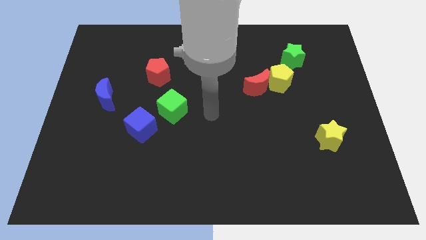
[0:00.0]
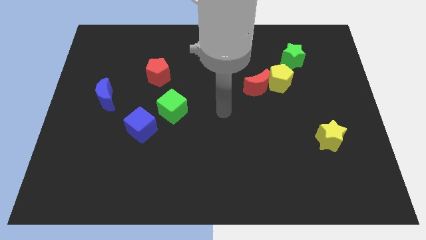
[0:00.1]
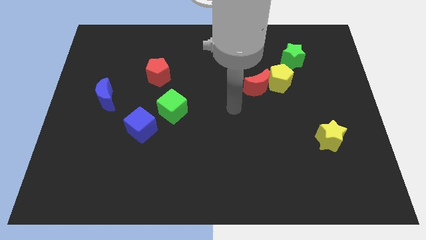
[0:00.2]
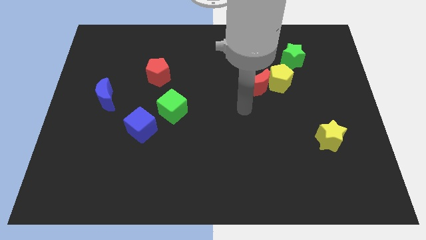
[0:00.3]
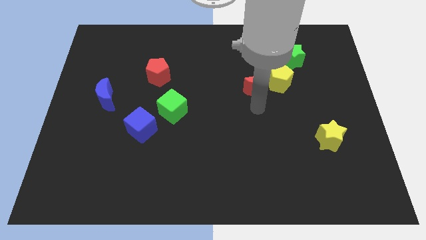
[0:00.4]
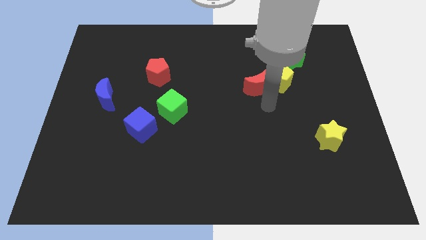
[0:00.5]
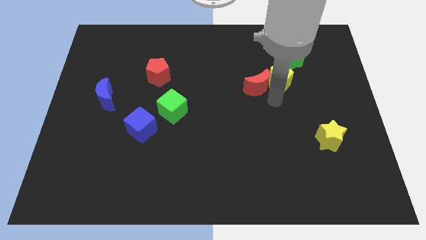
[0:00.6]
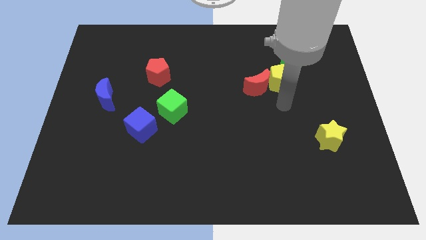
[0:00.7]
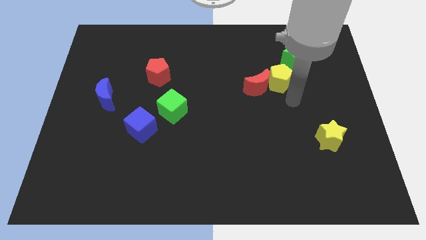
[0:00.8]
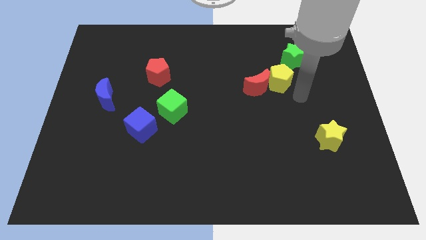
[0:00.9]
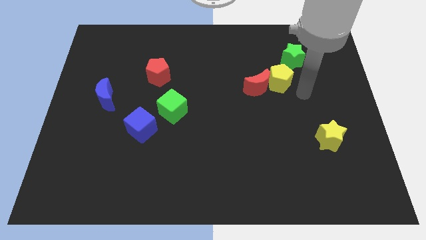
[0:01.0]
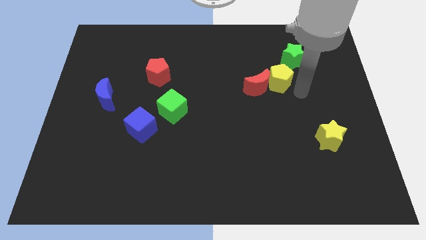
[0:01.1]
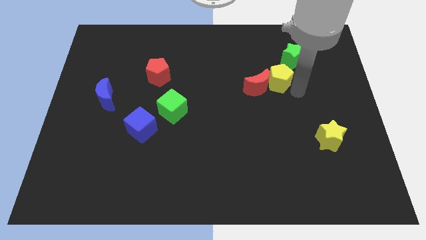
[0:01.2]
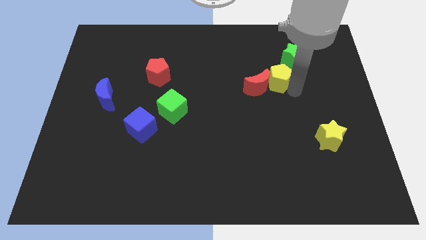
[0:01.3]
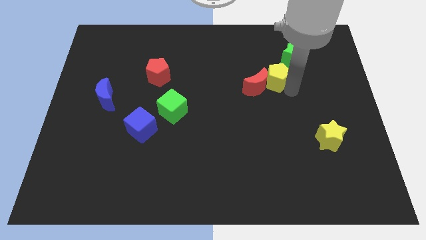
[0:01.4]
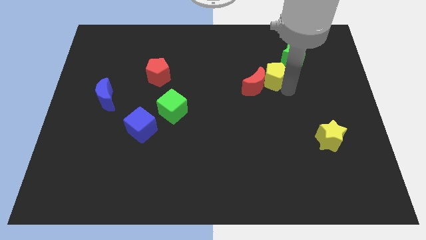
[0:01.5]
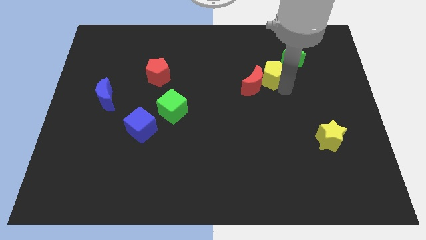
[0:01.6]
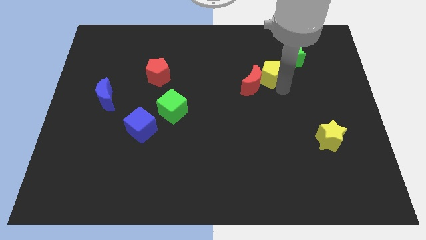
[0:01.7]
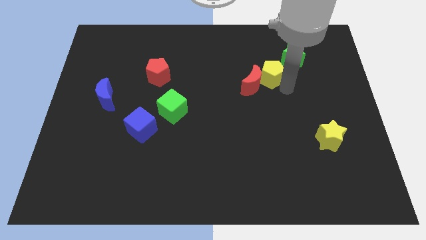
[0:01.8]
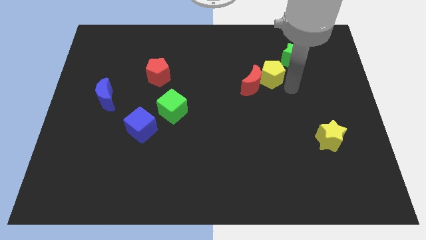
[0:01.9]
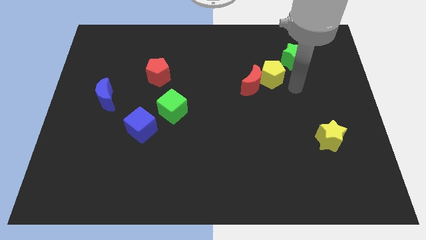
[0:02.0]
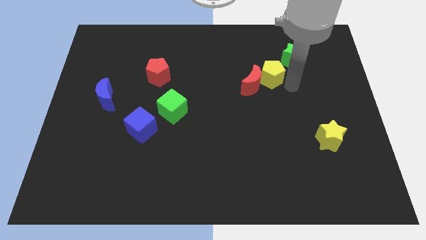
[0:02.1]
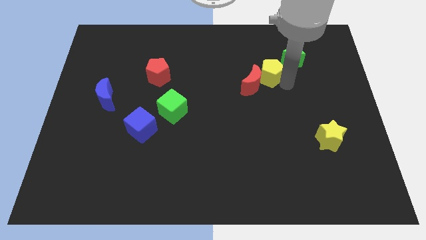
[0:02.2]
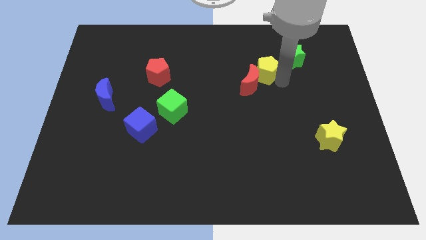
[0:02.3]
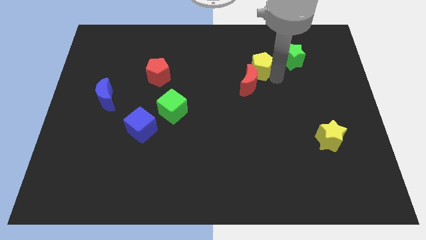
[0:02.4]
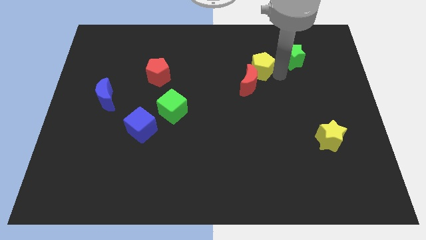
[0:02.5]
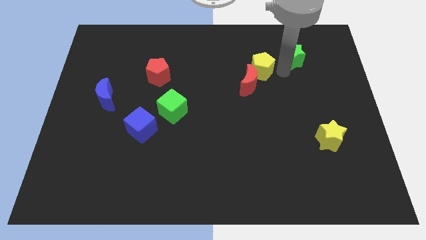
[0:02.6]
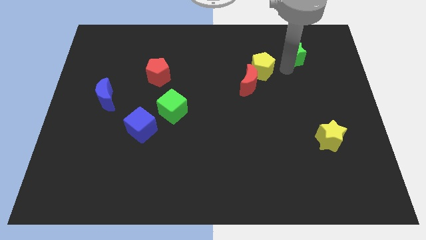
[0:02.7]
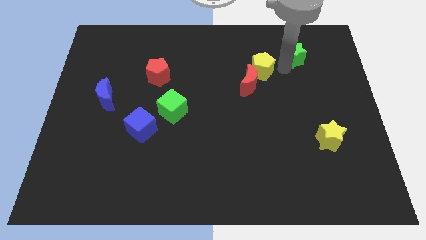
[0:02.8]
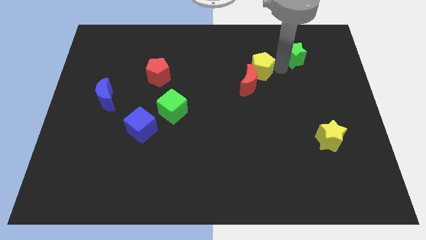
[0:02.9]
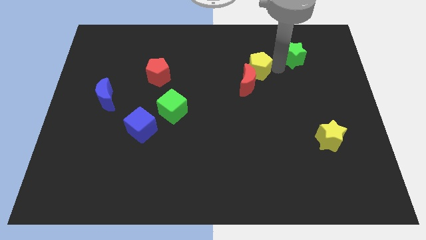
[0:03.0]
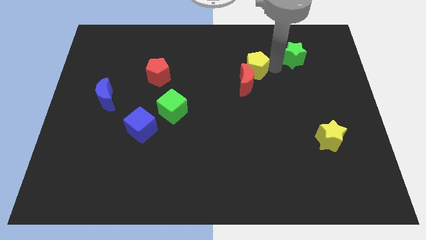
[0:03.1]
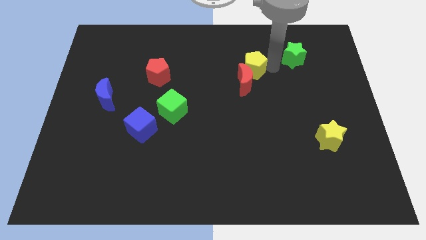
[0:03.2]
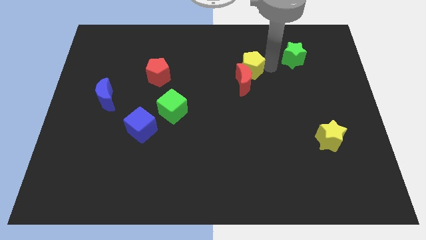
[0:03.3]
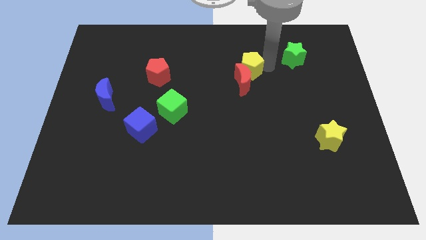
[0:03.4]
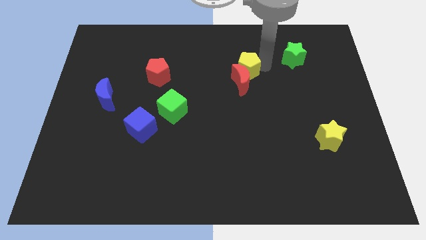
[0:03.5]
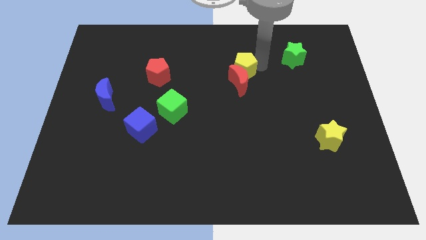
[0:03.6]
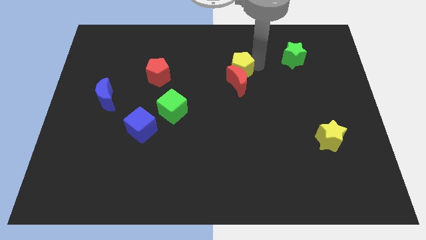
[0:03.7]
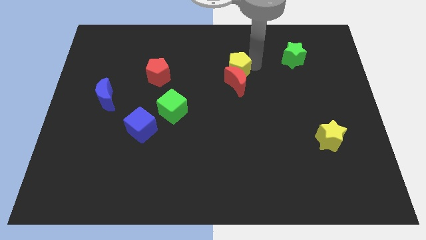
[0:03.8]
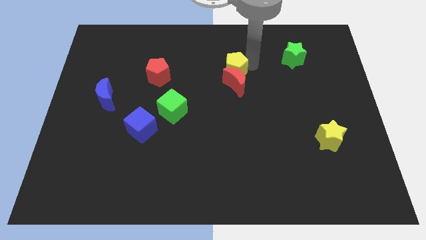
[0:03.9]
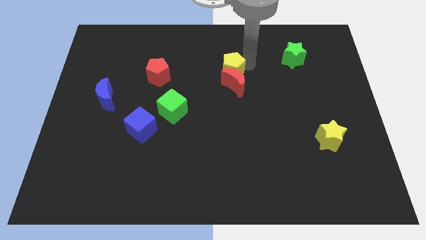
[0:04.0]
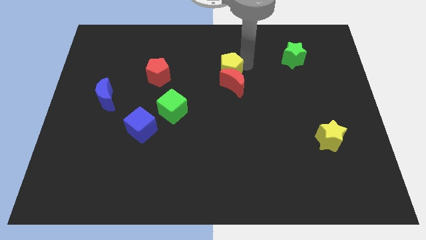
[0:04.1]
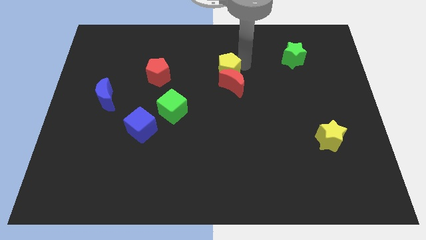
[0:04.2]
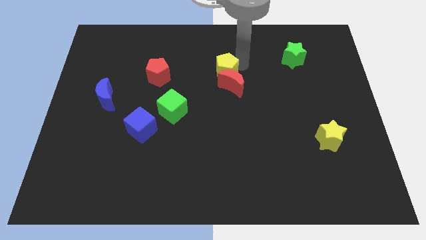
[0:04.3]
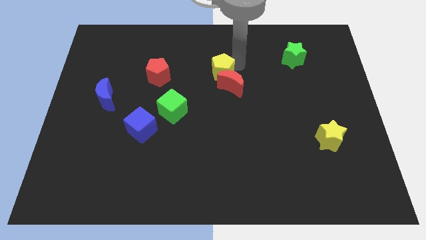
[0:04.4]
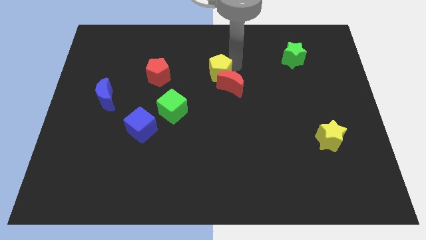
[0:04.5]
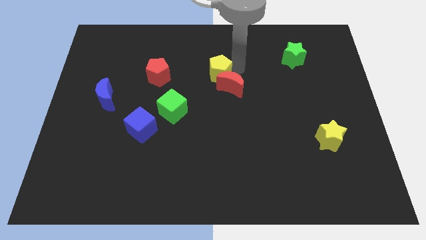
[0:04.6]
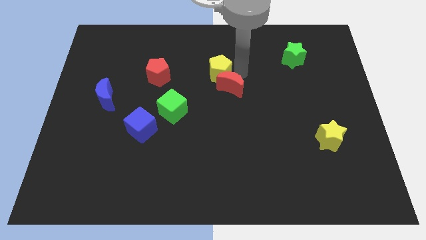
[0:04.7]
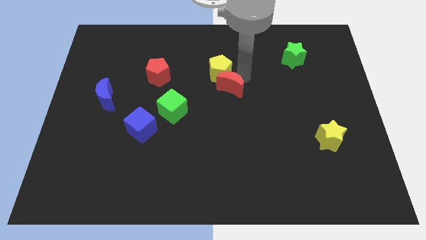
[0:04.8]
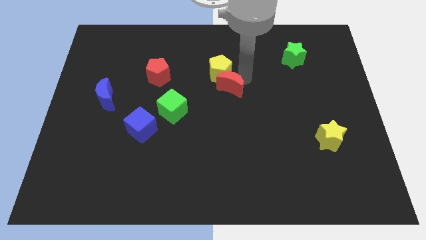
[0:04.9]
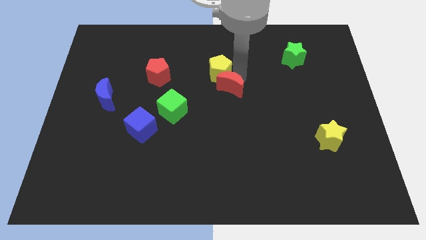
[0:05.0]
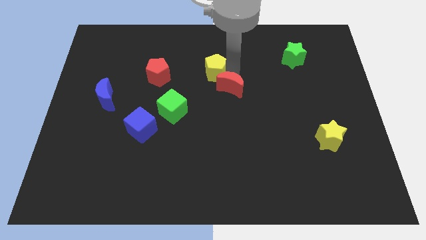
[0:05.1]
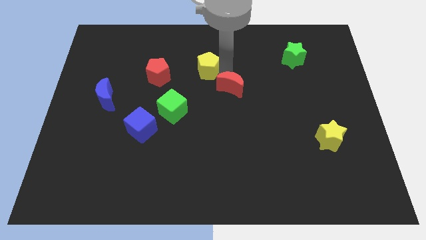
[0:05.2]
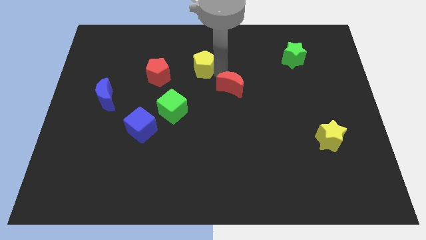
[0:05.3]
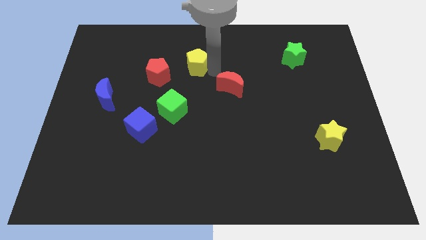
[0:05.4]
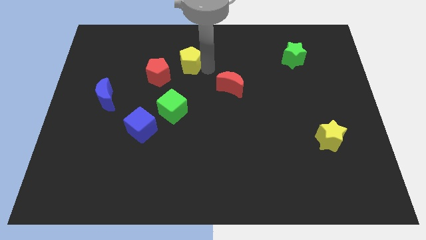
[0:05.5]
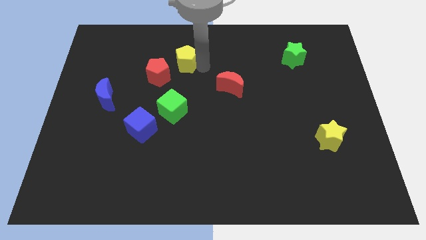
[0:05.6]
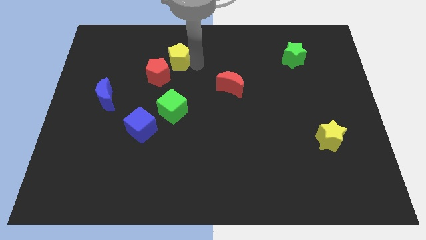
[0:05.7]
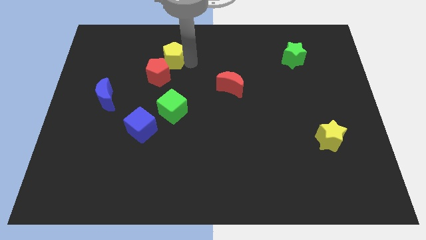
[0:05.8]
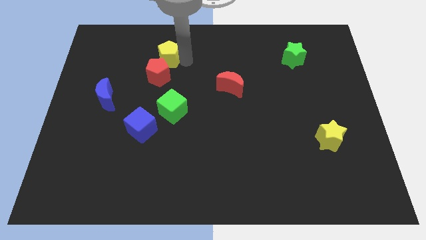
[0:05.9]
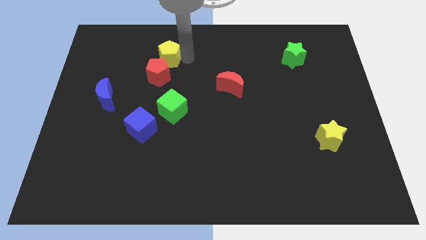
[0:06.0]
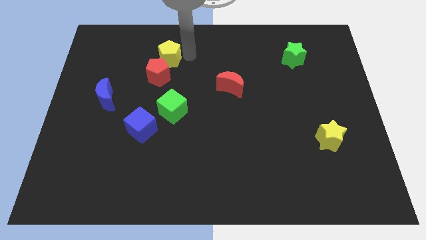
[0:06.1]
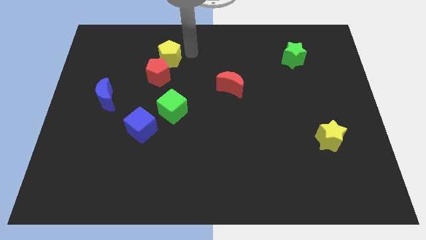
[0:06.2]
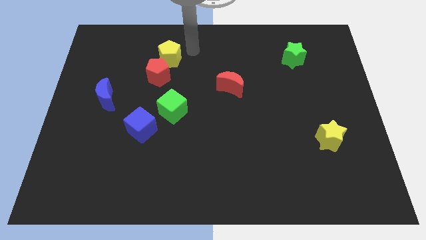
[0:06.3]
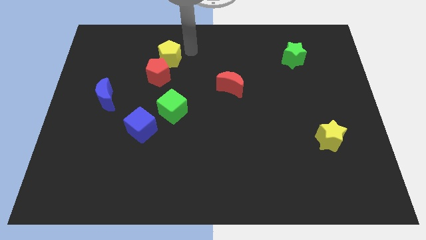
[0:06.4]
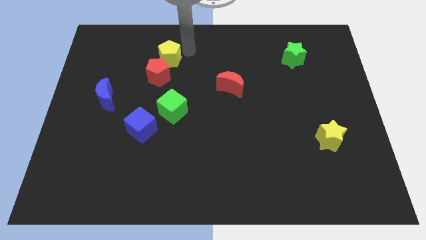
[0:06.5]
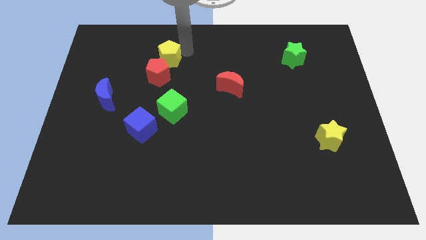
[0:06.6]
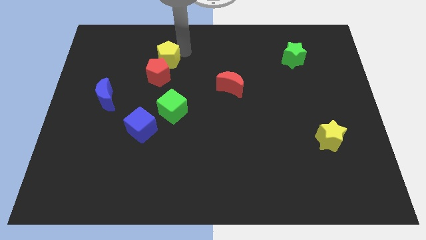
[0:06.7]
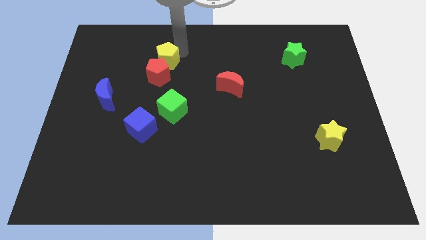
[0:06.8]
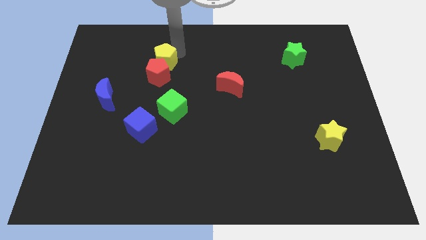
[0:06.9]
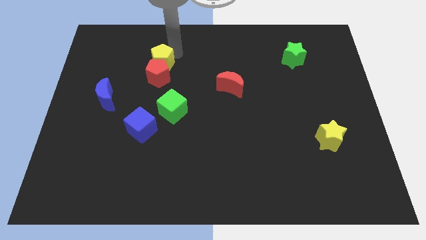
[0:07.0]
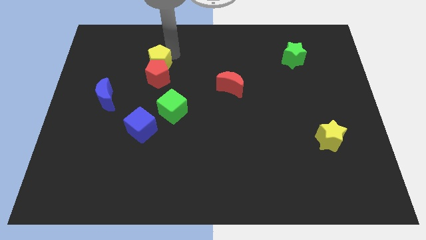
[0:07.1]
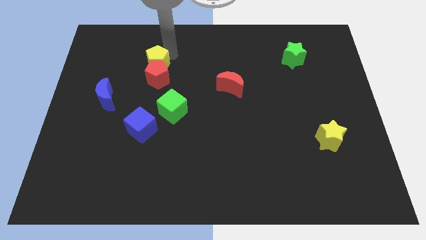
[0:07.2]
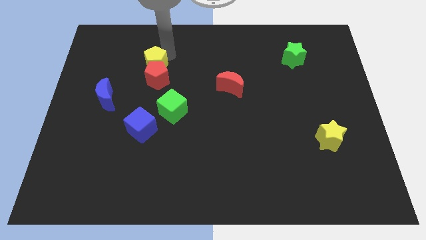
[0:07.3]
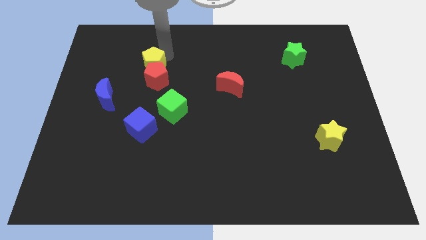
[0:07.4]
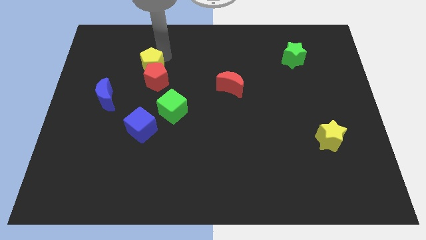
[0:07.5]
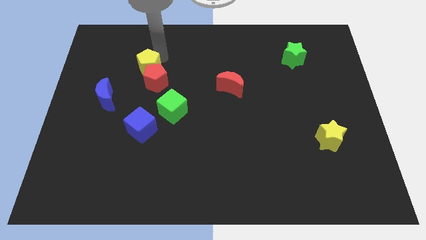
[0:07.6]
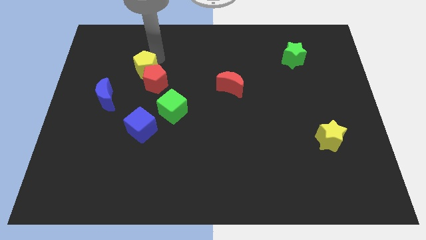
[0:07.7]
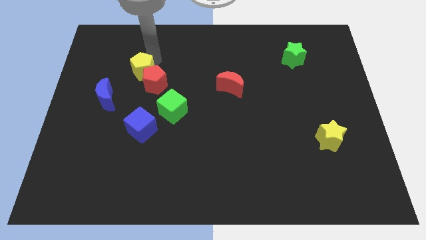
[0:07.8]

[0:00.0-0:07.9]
slide the yellow pentagon to the left of the red pentagon
